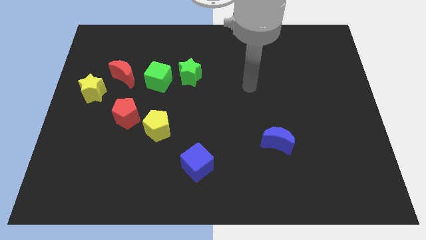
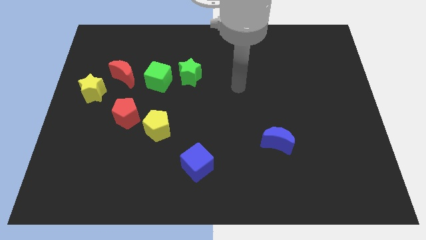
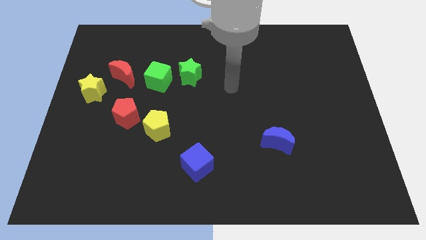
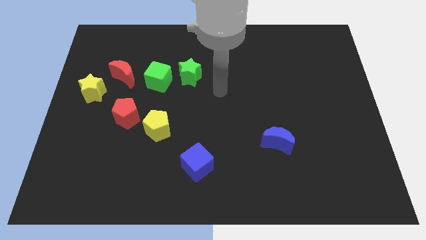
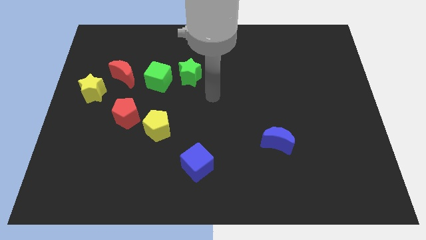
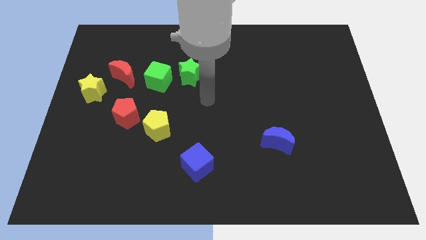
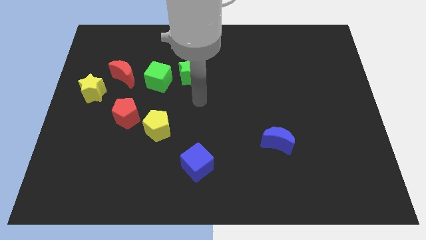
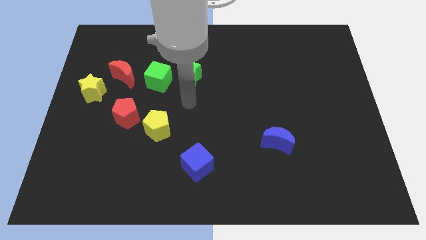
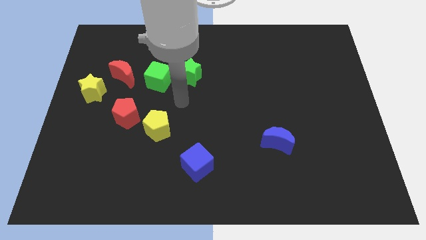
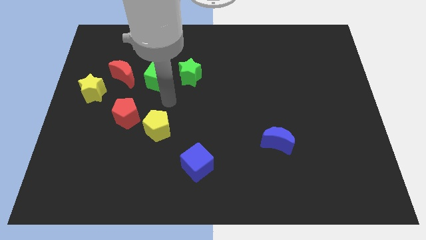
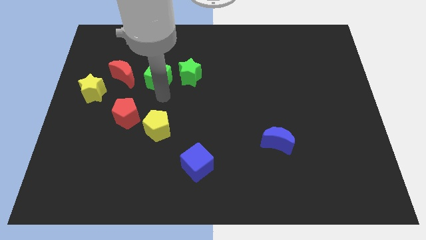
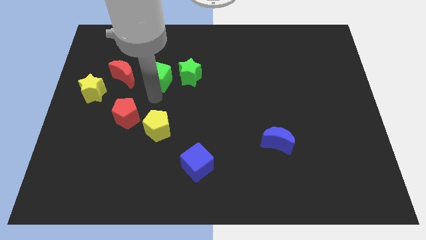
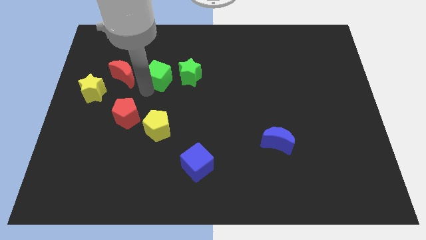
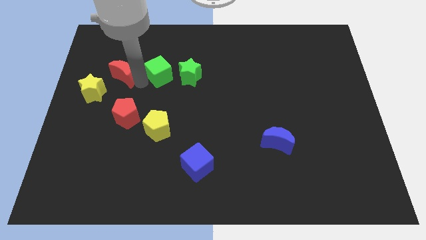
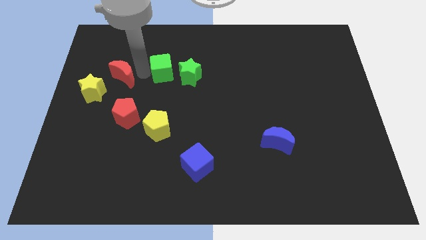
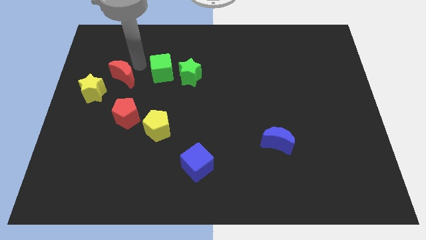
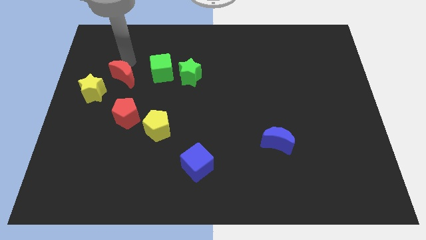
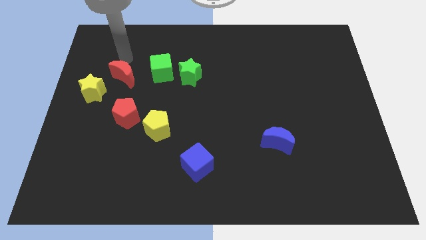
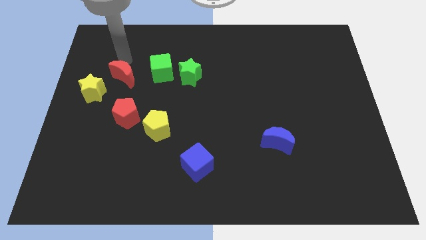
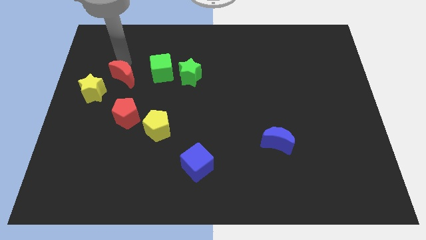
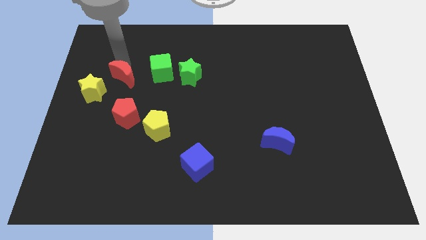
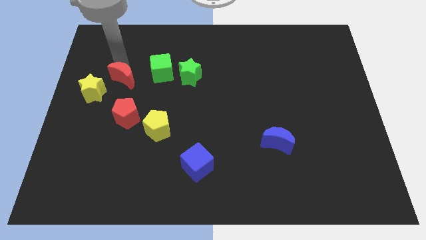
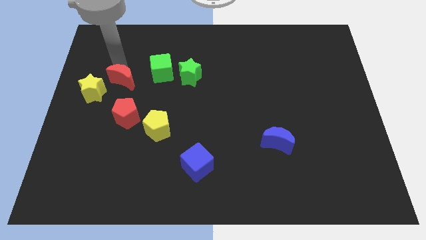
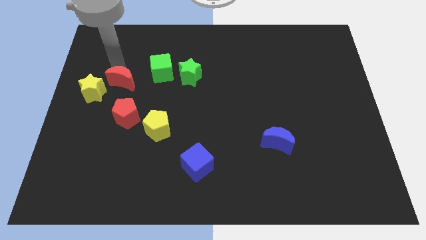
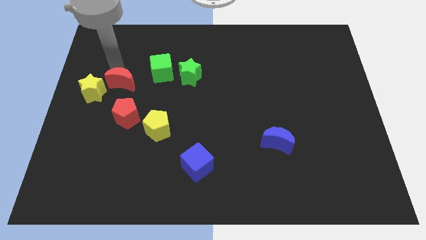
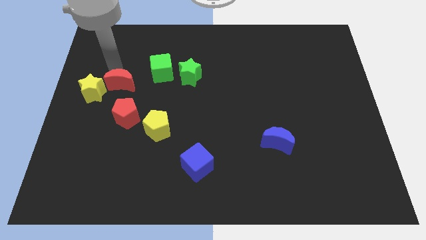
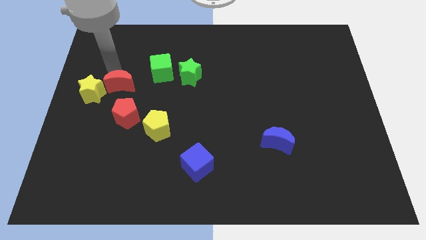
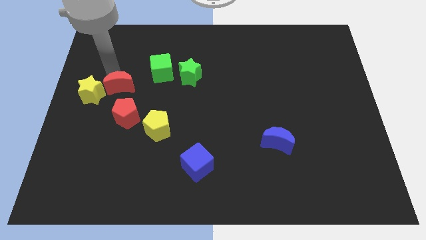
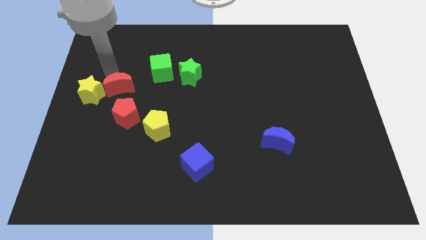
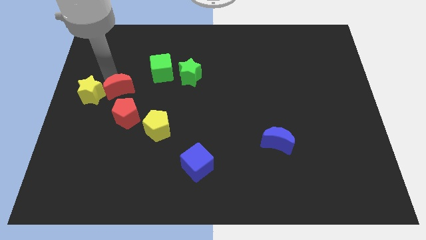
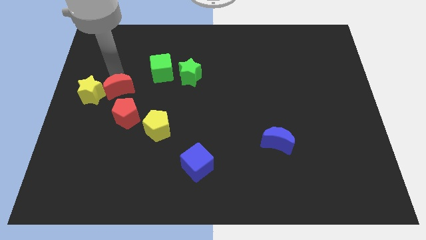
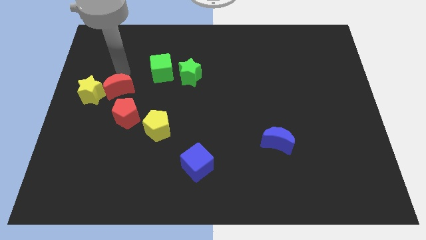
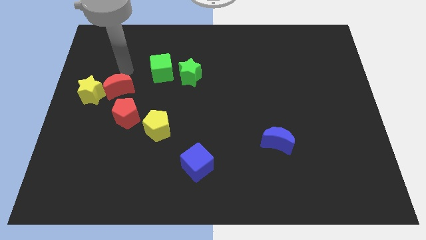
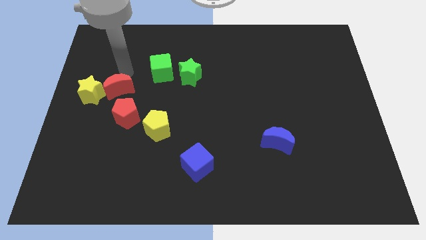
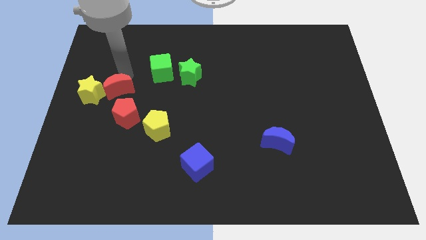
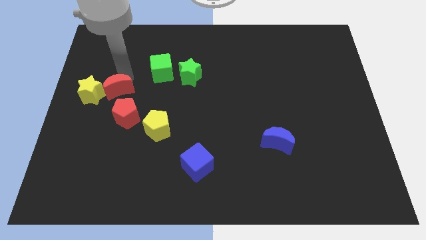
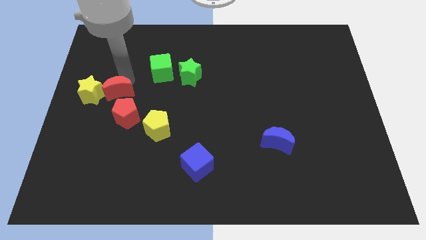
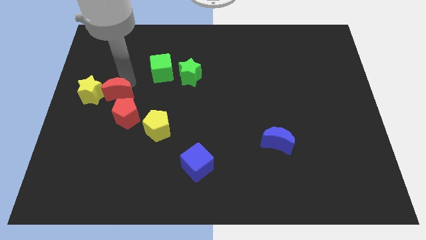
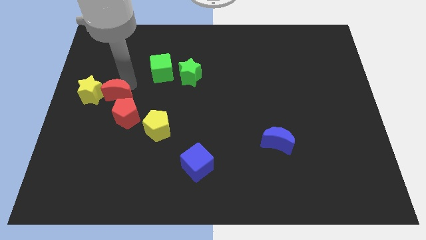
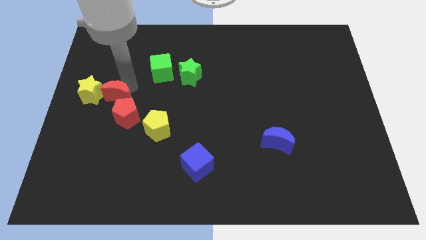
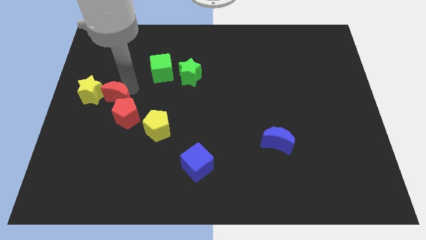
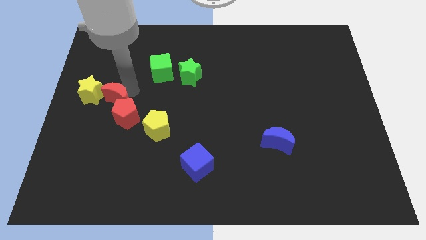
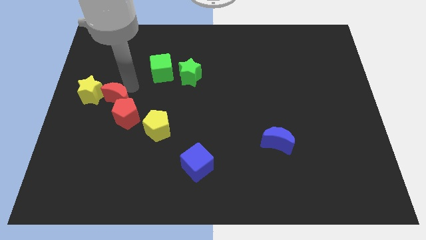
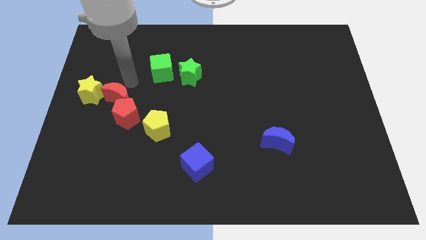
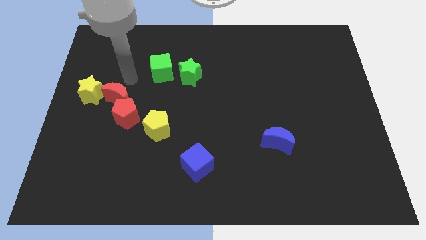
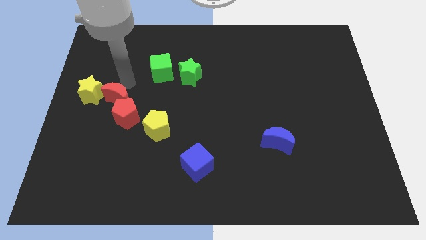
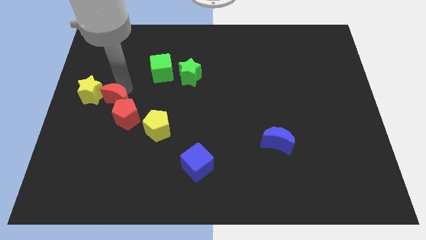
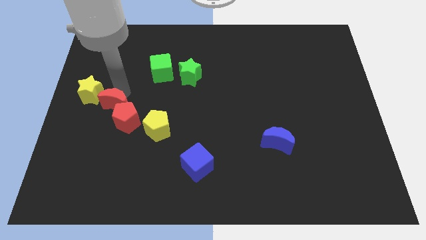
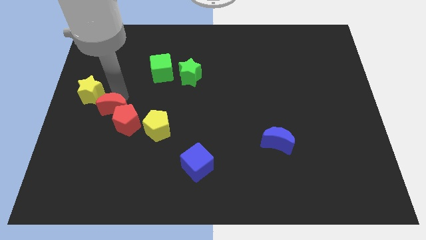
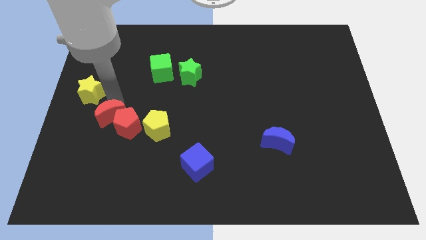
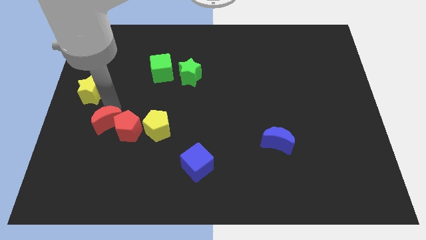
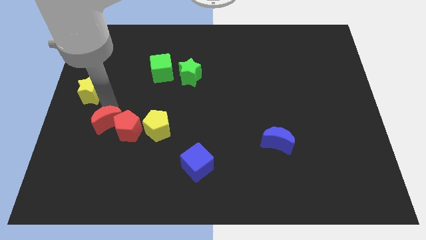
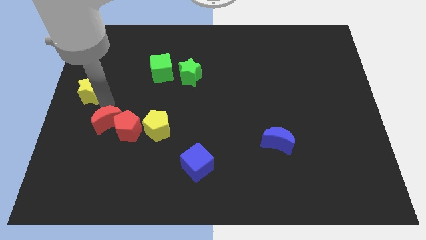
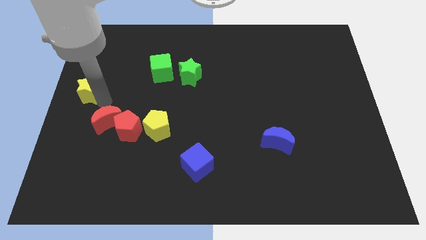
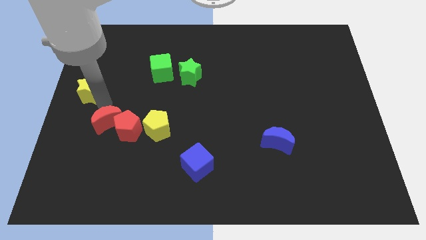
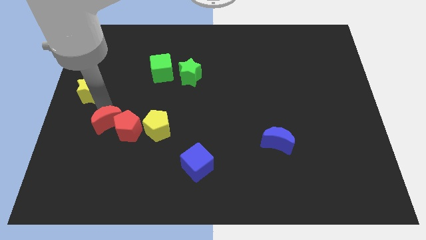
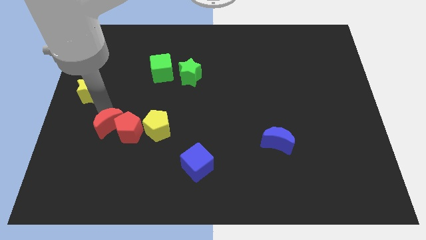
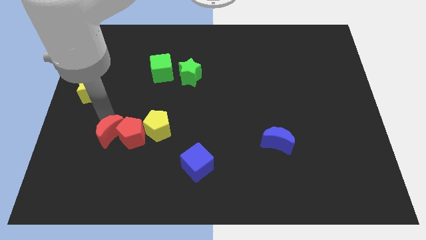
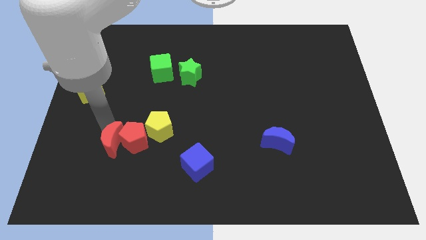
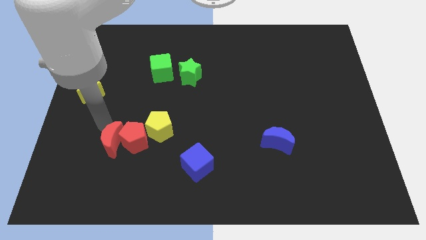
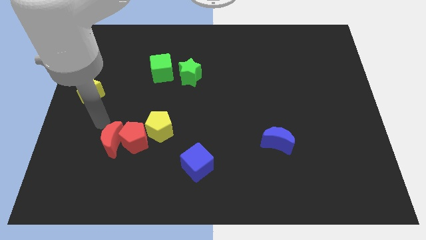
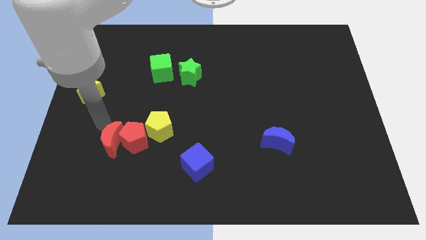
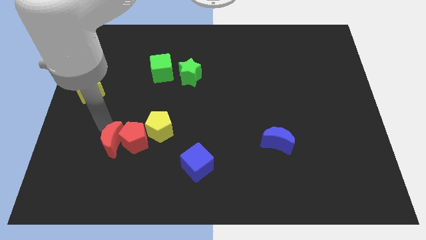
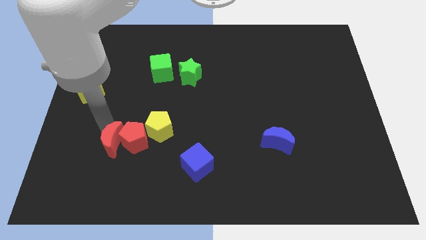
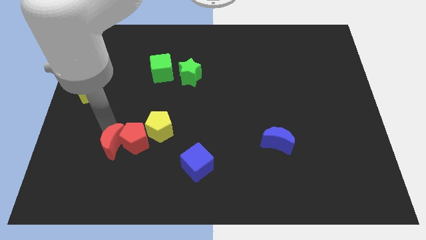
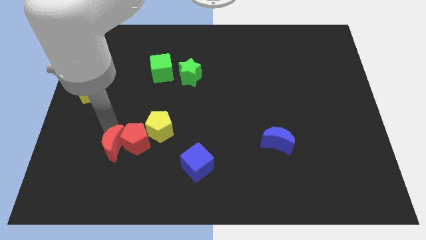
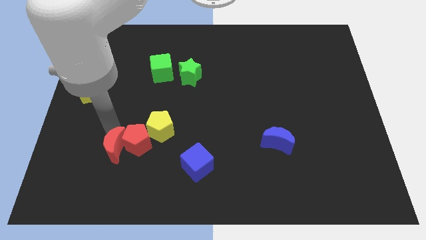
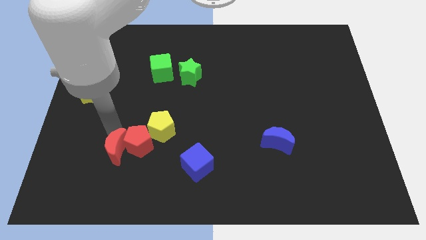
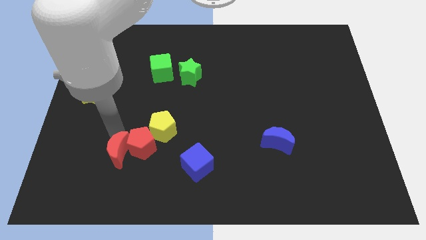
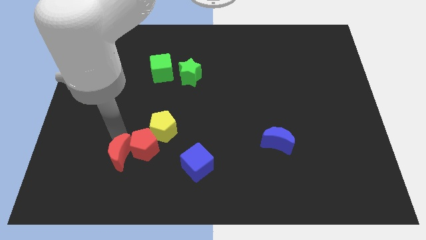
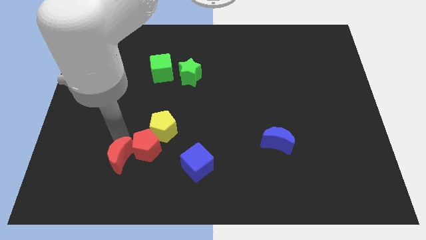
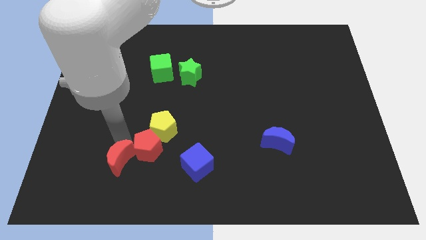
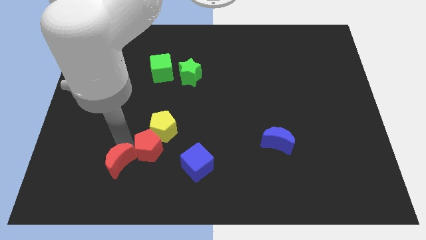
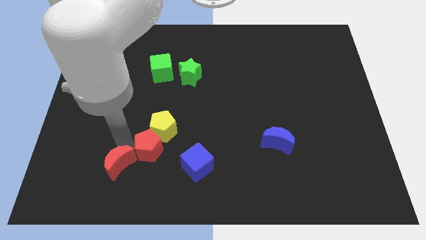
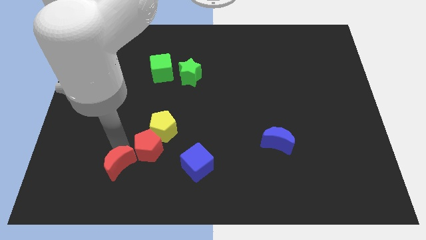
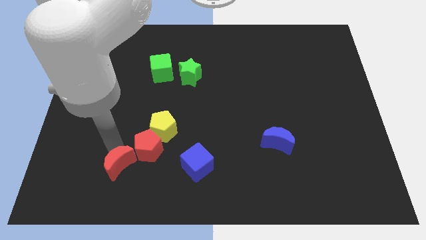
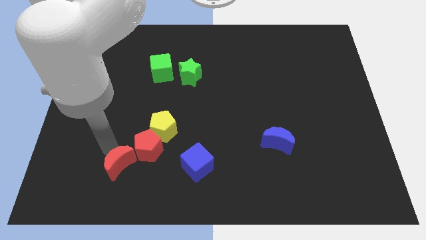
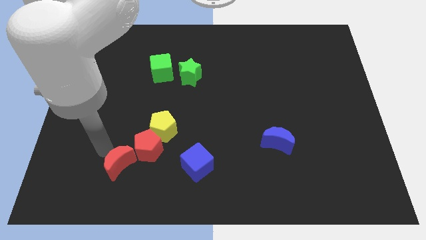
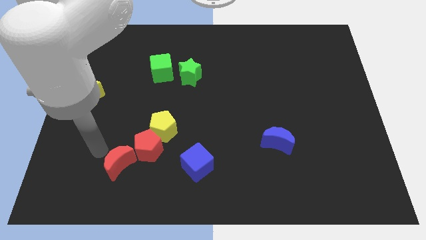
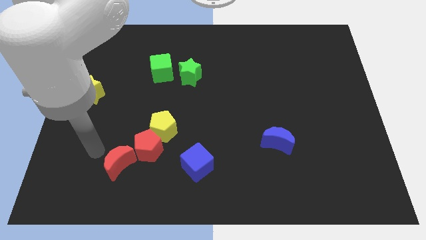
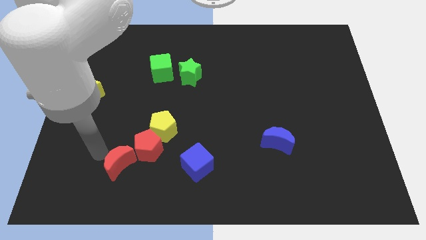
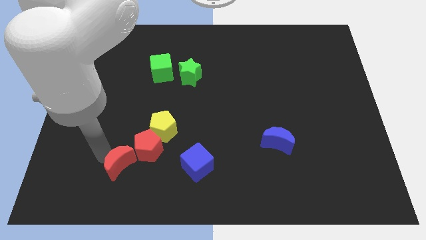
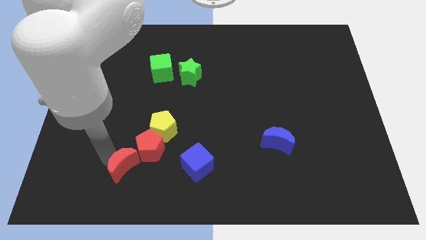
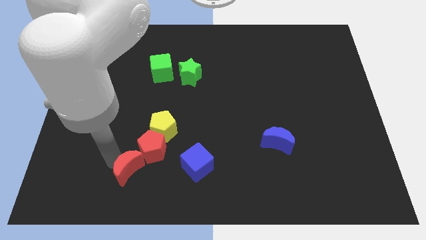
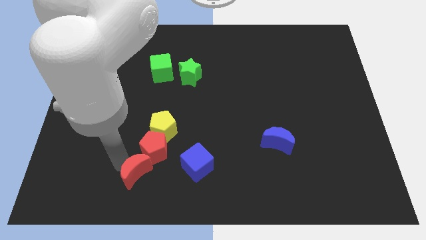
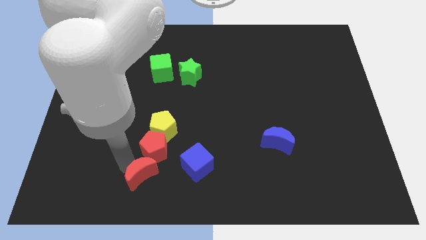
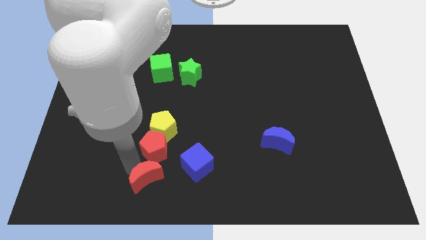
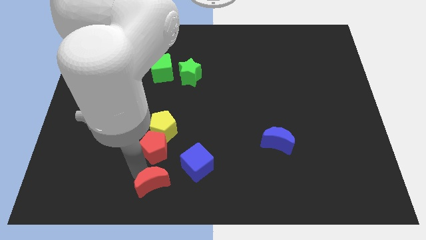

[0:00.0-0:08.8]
move the red moon to the bottom side
